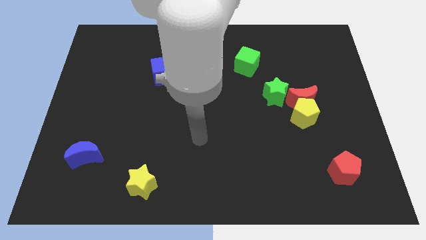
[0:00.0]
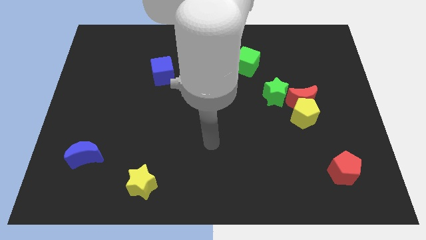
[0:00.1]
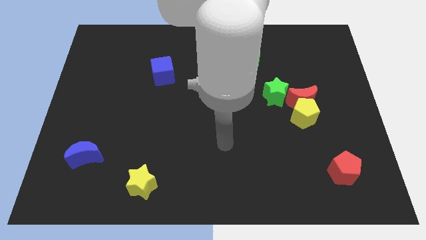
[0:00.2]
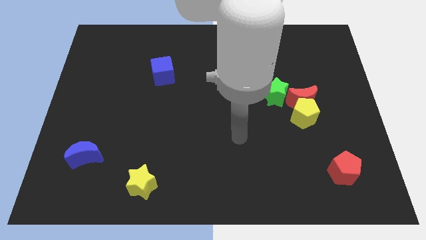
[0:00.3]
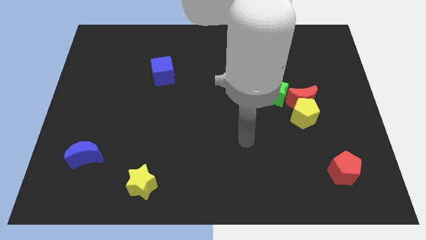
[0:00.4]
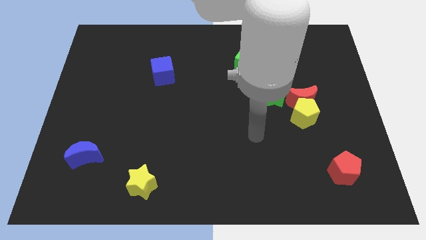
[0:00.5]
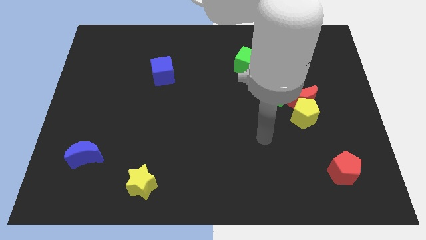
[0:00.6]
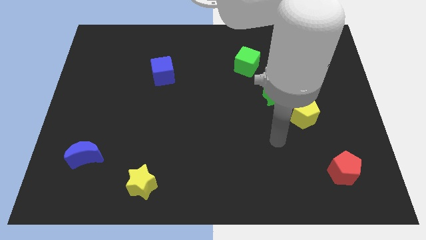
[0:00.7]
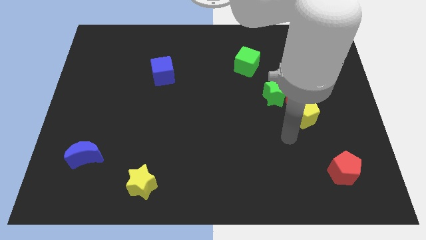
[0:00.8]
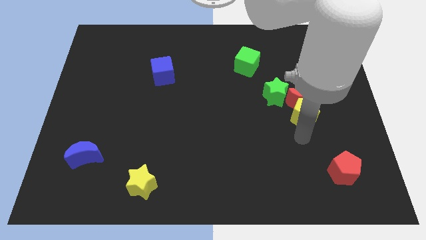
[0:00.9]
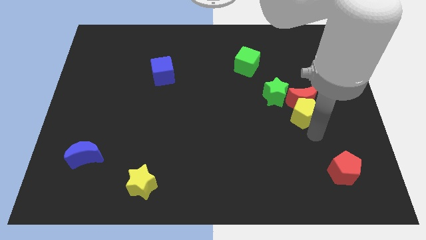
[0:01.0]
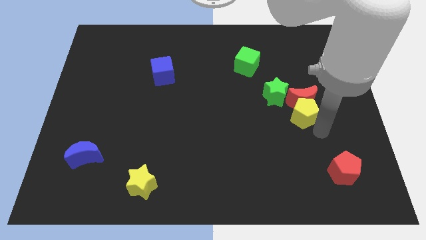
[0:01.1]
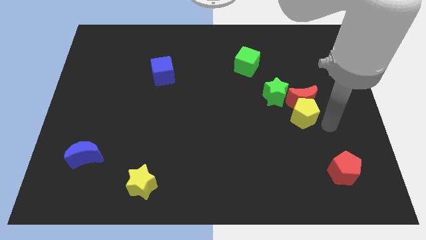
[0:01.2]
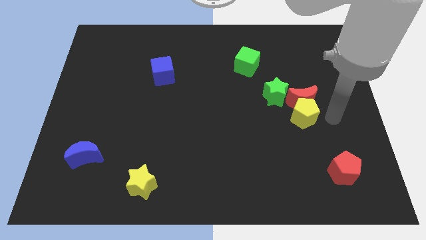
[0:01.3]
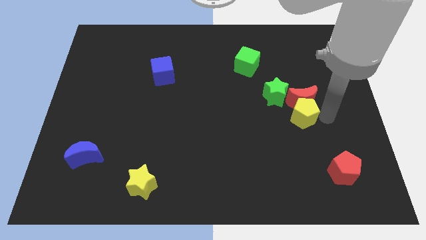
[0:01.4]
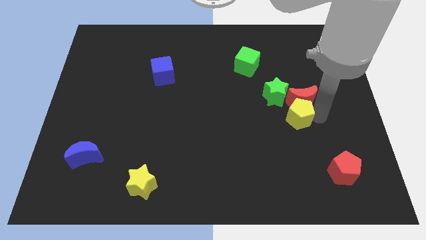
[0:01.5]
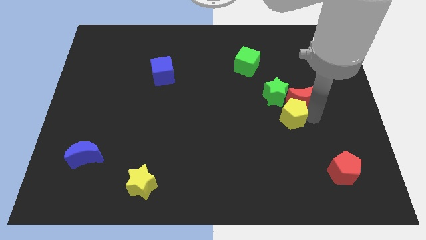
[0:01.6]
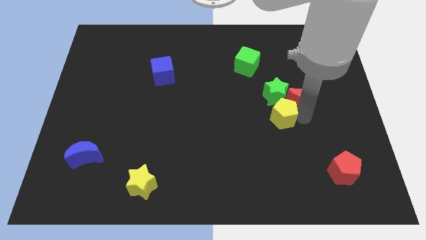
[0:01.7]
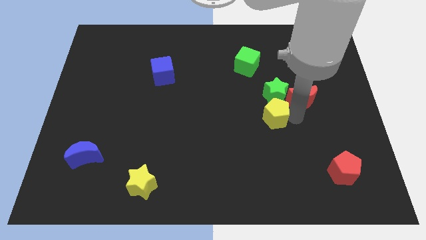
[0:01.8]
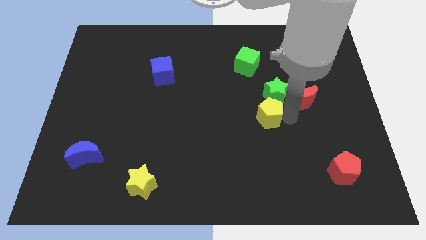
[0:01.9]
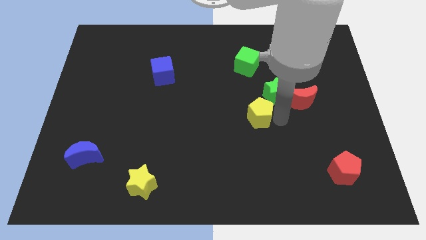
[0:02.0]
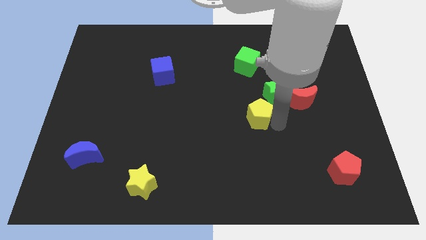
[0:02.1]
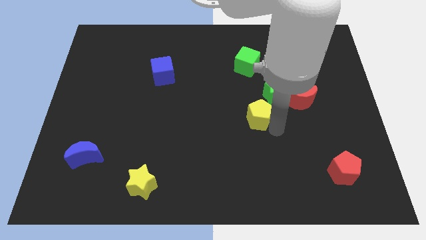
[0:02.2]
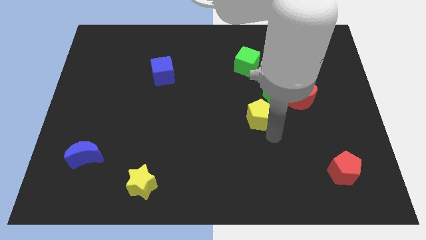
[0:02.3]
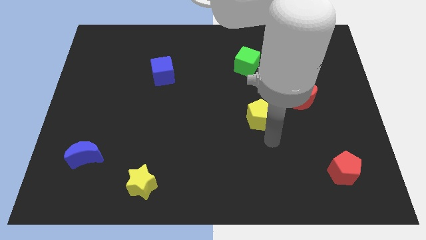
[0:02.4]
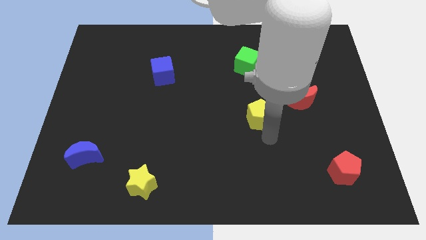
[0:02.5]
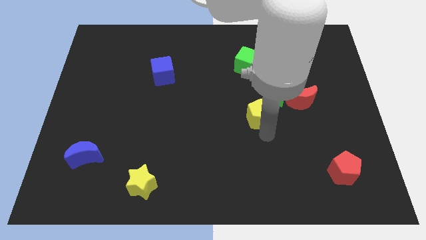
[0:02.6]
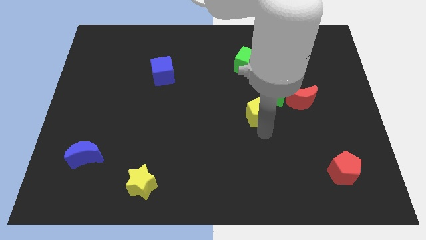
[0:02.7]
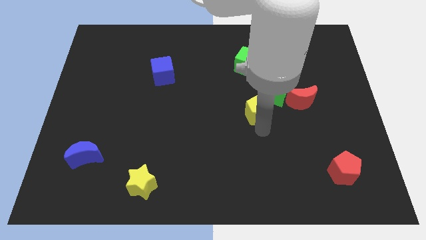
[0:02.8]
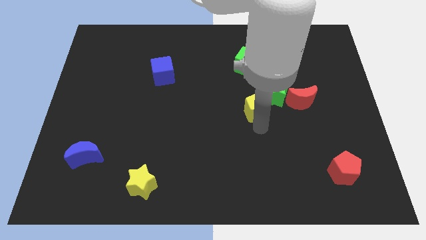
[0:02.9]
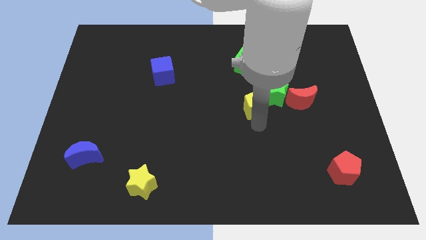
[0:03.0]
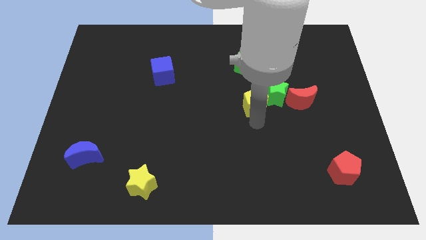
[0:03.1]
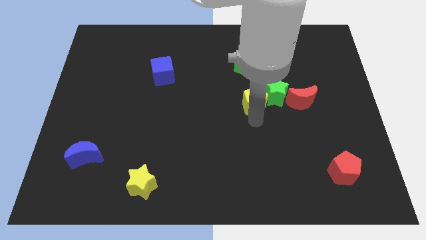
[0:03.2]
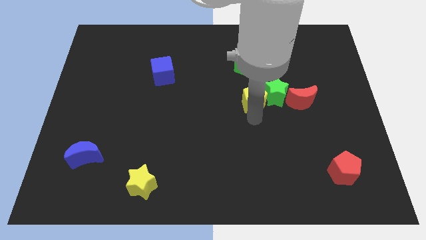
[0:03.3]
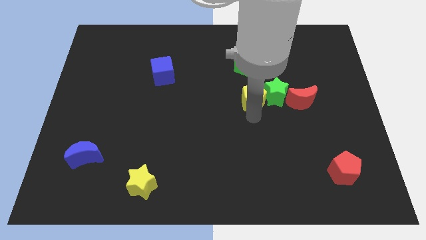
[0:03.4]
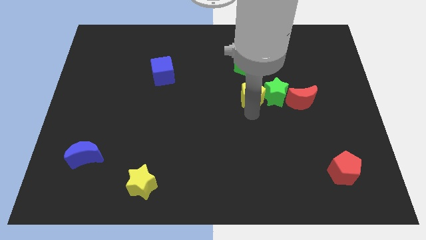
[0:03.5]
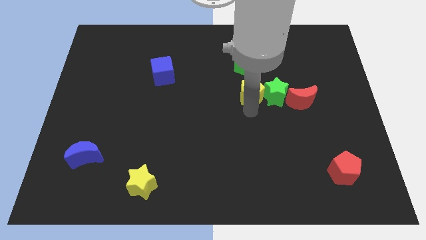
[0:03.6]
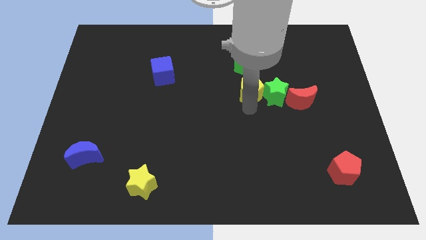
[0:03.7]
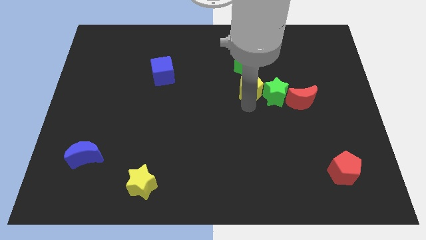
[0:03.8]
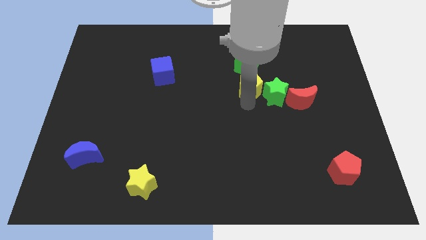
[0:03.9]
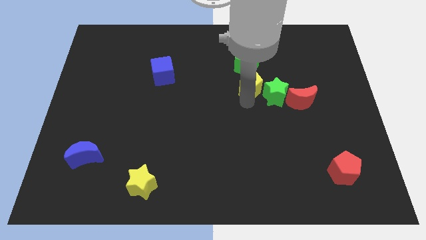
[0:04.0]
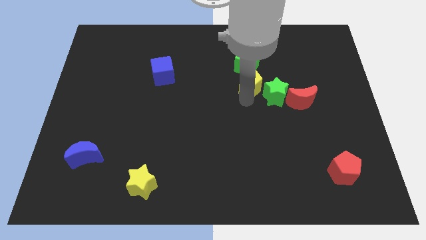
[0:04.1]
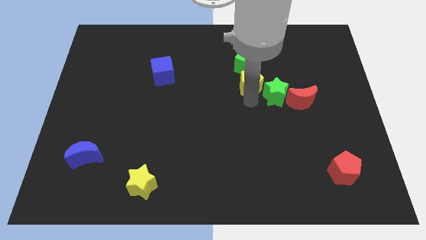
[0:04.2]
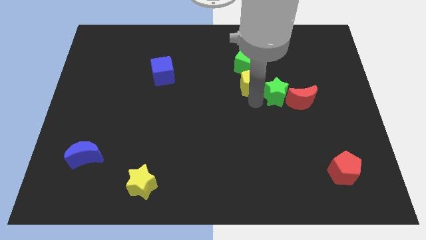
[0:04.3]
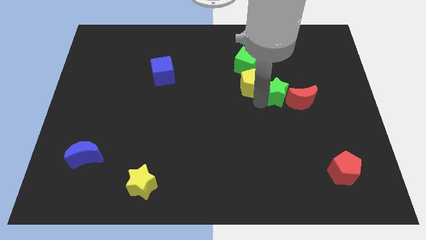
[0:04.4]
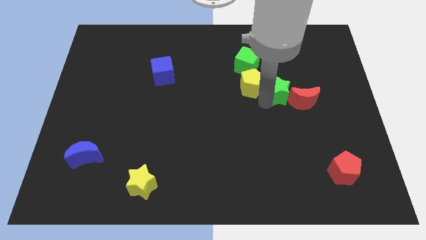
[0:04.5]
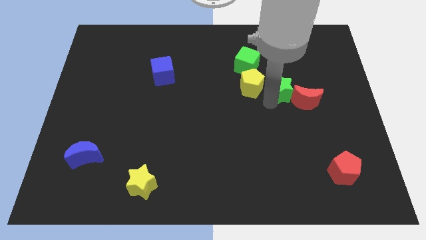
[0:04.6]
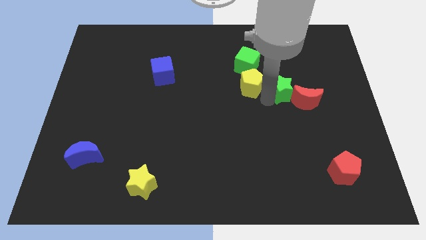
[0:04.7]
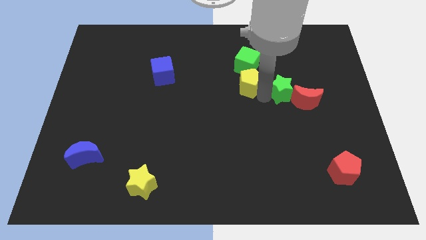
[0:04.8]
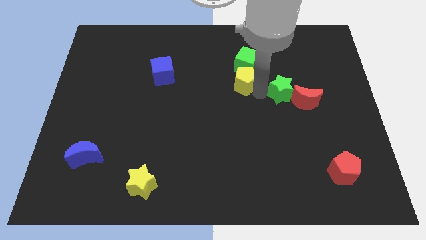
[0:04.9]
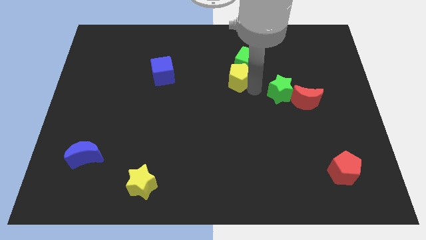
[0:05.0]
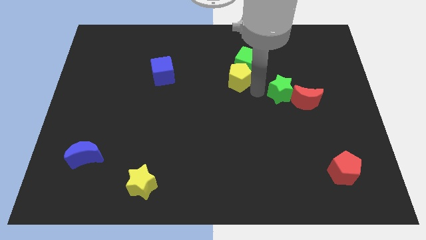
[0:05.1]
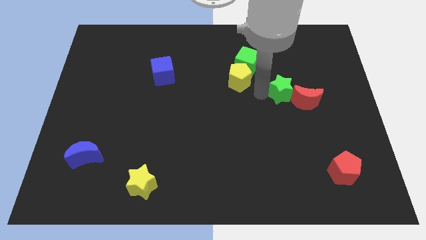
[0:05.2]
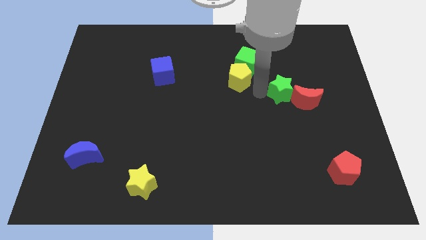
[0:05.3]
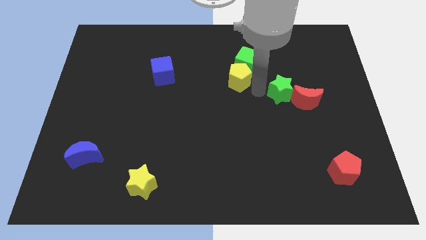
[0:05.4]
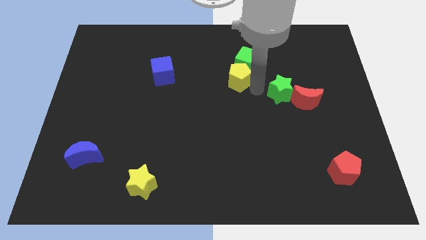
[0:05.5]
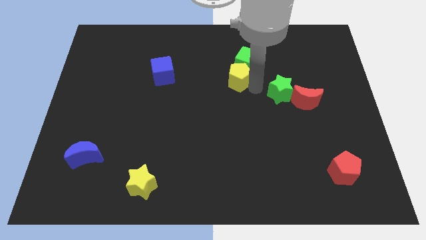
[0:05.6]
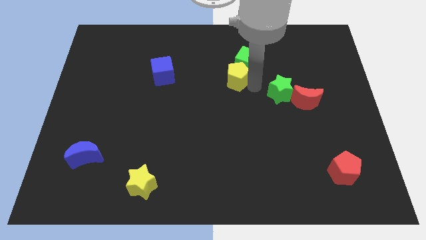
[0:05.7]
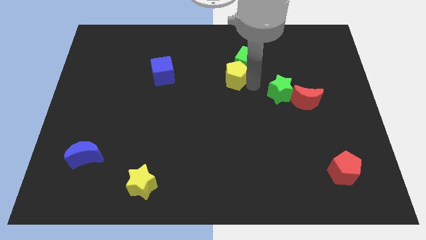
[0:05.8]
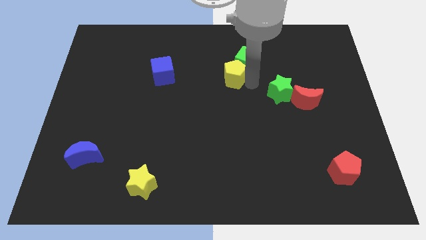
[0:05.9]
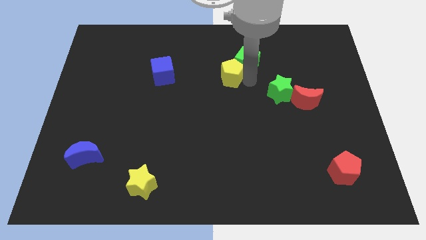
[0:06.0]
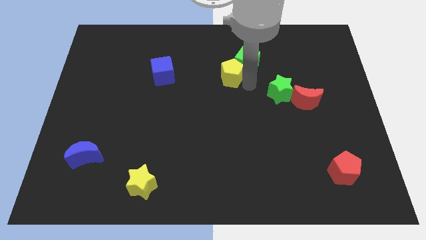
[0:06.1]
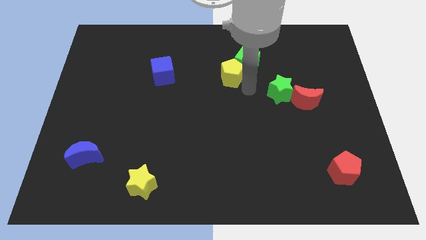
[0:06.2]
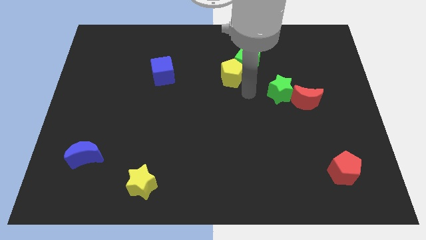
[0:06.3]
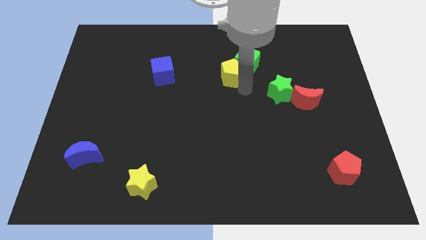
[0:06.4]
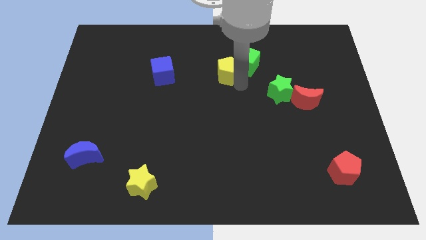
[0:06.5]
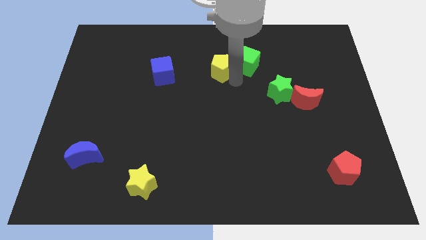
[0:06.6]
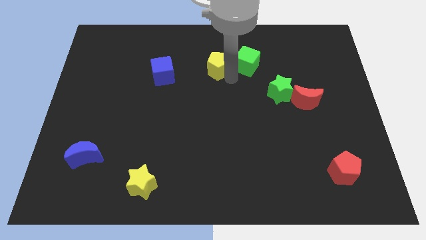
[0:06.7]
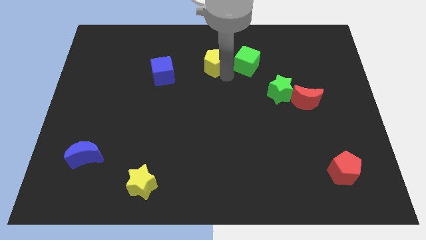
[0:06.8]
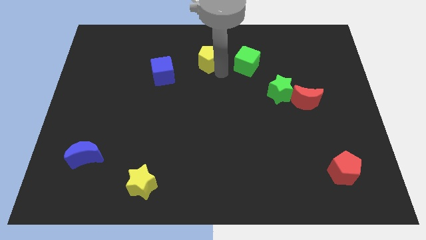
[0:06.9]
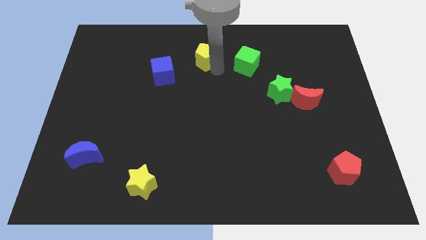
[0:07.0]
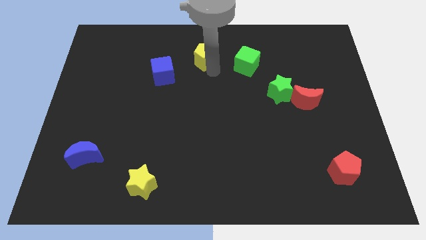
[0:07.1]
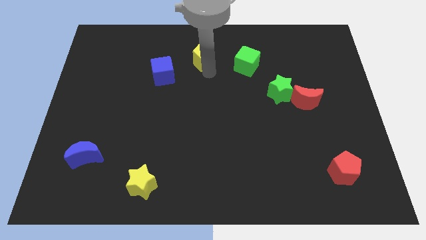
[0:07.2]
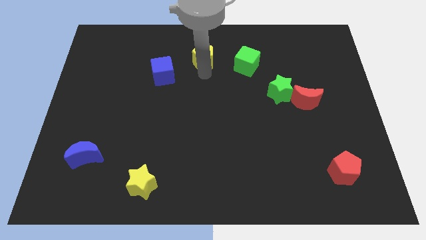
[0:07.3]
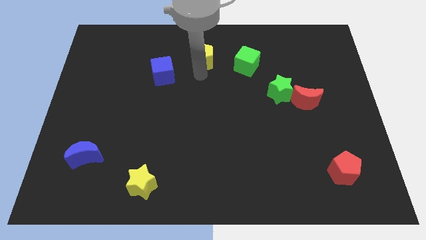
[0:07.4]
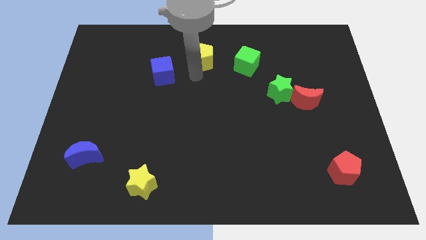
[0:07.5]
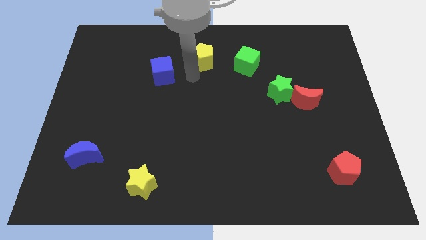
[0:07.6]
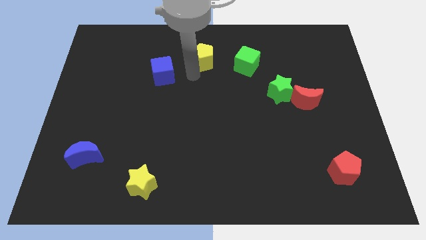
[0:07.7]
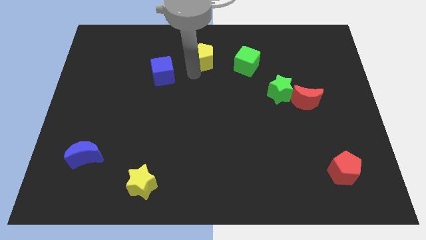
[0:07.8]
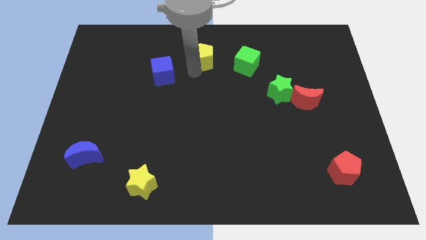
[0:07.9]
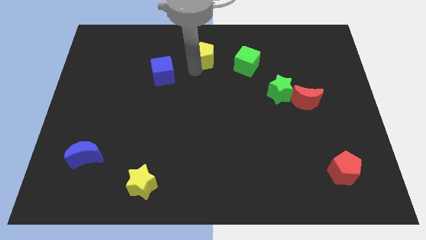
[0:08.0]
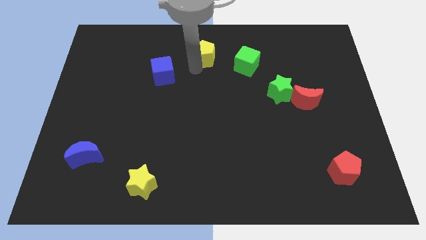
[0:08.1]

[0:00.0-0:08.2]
move the yellow pentagon to the top side
